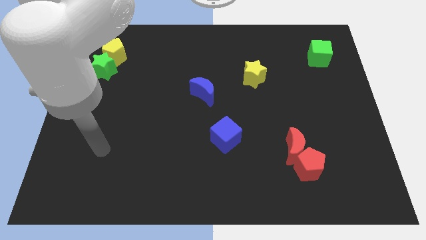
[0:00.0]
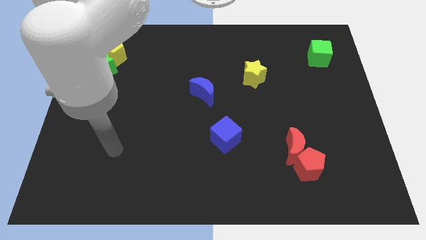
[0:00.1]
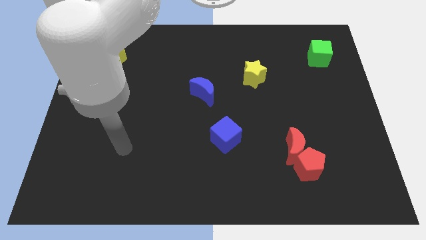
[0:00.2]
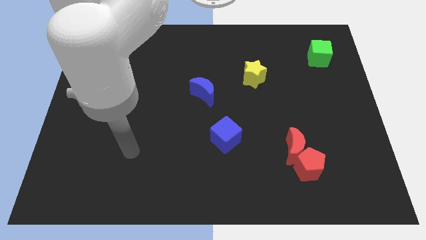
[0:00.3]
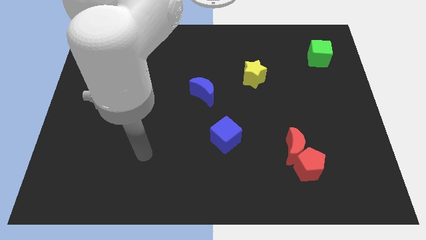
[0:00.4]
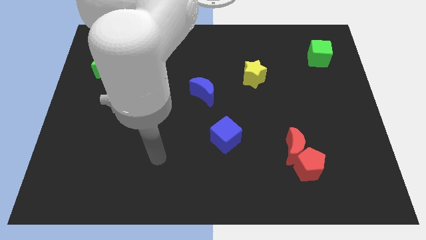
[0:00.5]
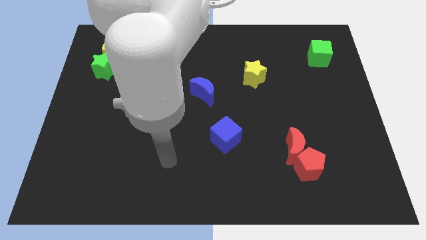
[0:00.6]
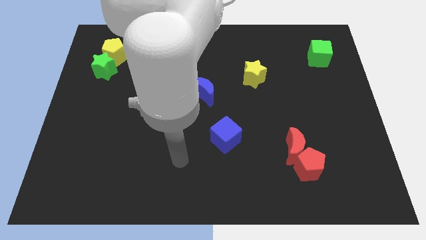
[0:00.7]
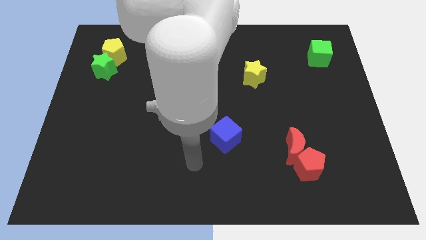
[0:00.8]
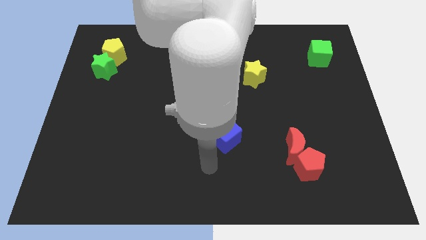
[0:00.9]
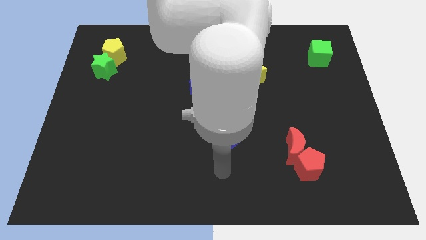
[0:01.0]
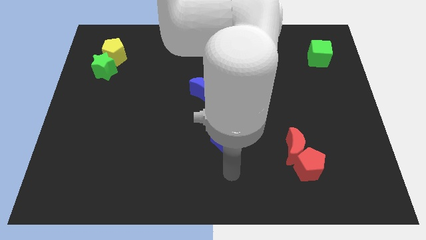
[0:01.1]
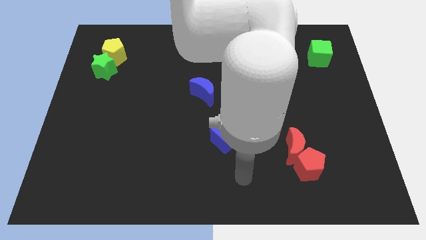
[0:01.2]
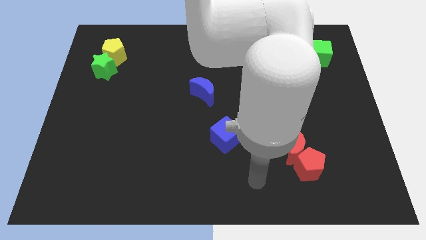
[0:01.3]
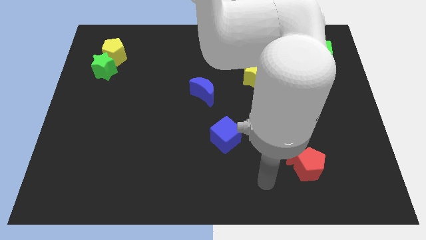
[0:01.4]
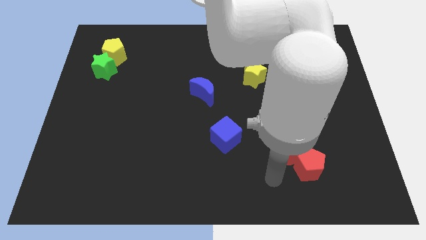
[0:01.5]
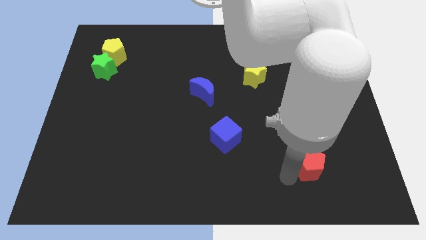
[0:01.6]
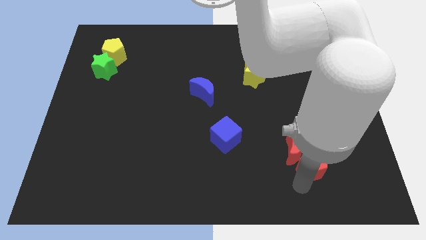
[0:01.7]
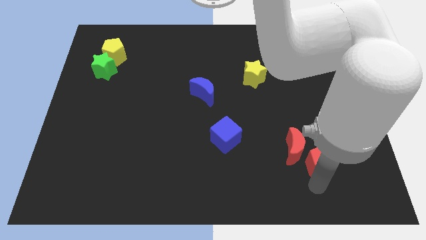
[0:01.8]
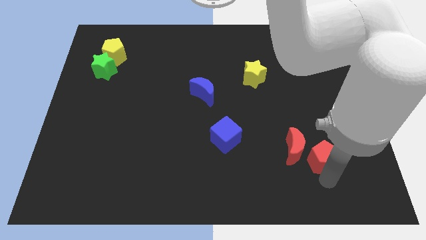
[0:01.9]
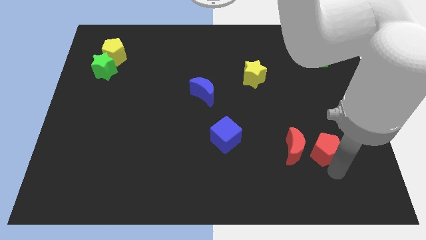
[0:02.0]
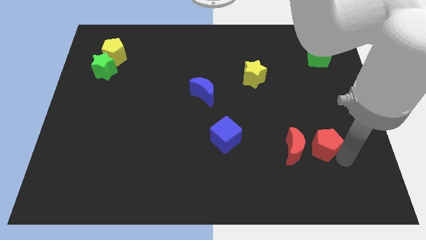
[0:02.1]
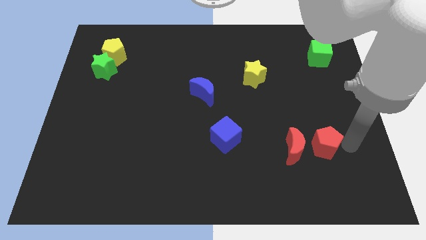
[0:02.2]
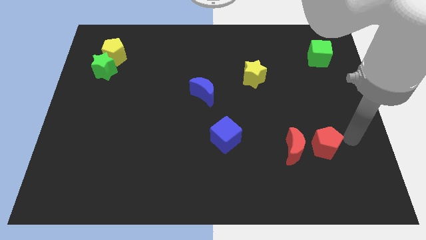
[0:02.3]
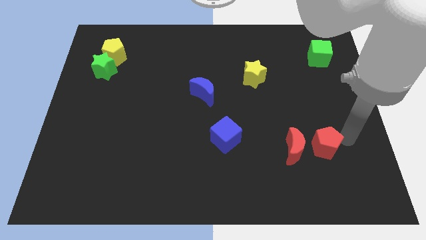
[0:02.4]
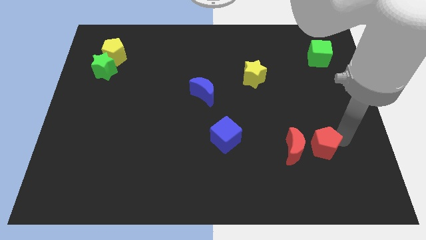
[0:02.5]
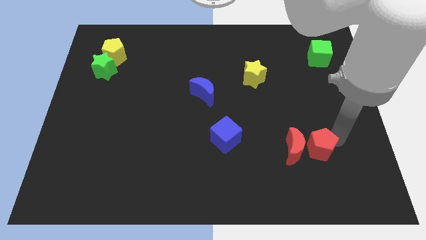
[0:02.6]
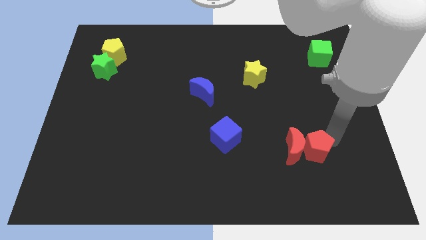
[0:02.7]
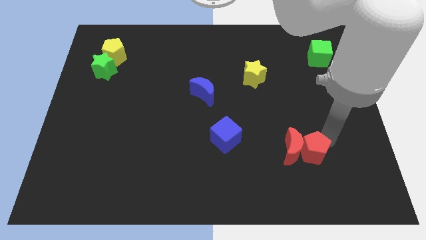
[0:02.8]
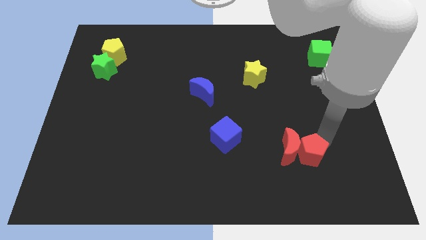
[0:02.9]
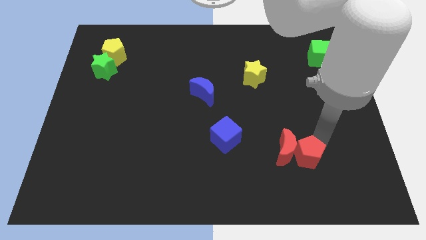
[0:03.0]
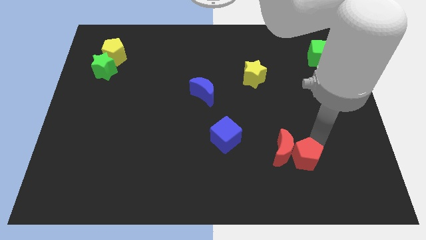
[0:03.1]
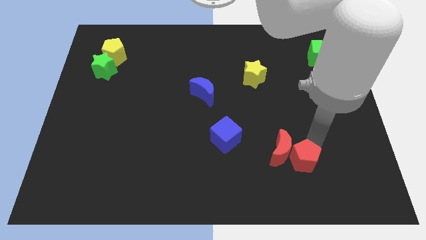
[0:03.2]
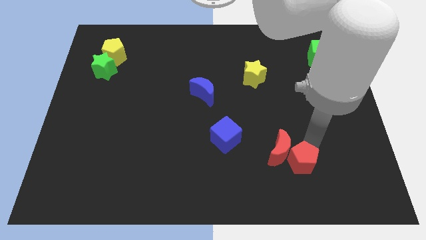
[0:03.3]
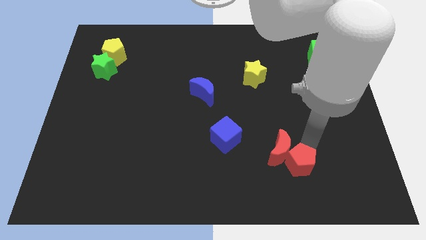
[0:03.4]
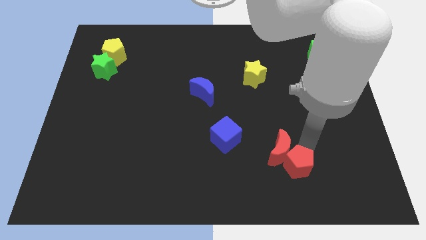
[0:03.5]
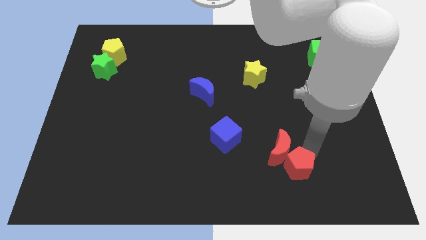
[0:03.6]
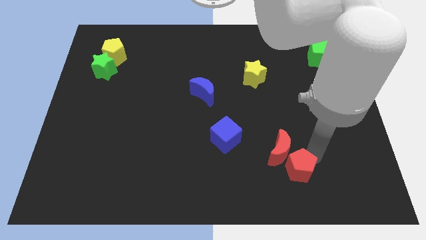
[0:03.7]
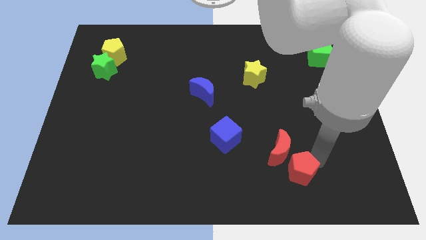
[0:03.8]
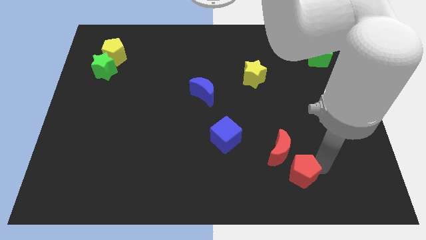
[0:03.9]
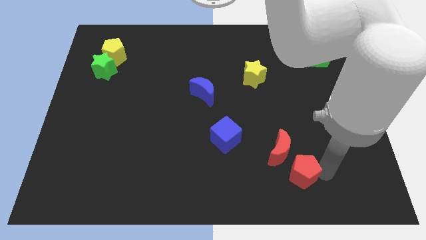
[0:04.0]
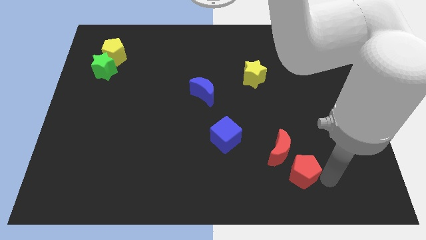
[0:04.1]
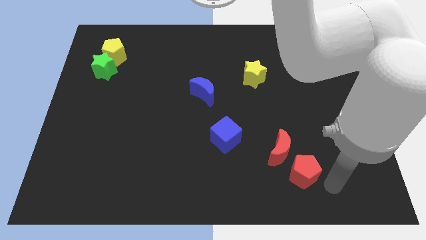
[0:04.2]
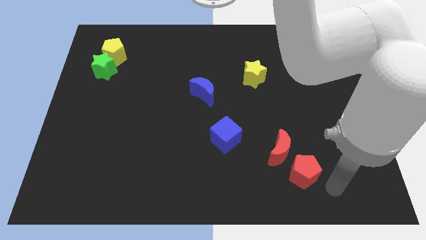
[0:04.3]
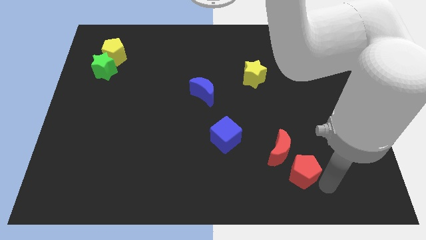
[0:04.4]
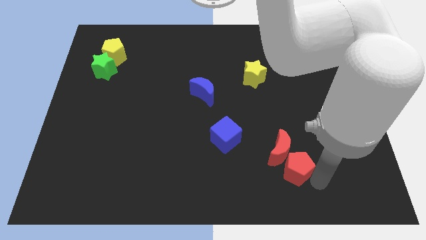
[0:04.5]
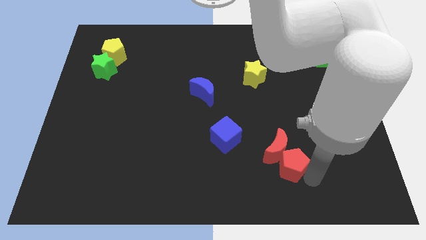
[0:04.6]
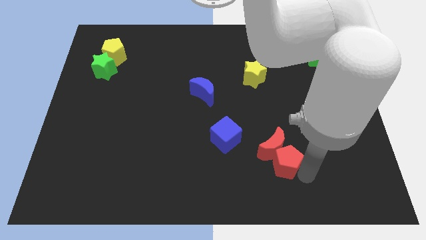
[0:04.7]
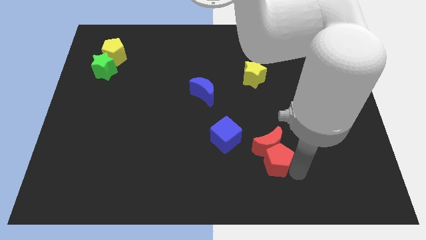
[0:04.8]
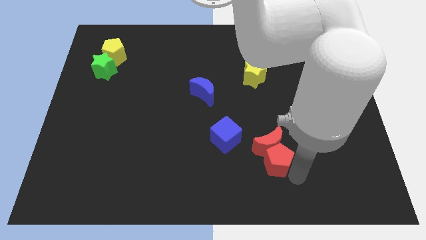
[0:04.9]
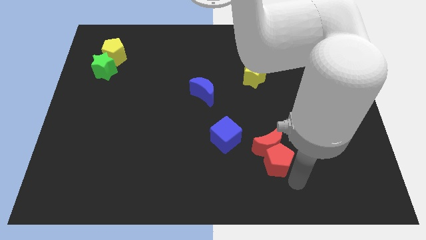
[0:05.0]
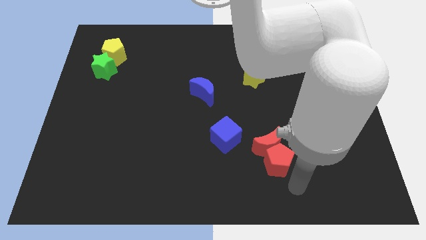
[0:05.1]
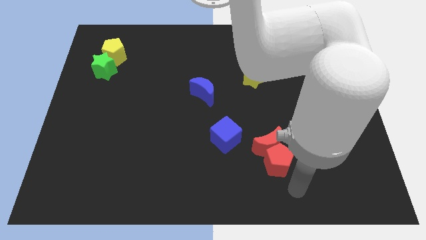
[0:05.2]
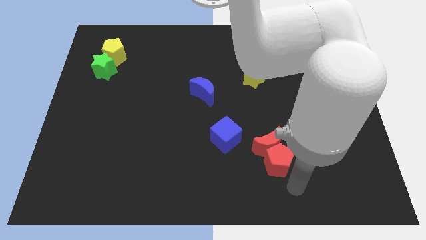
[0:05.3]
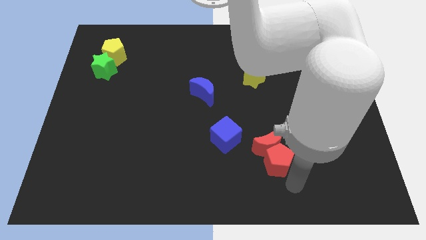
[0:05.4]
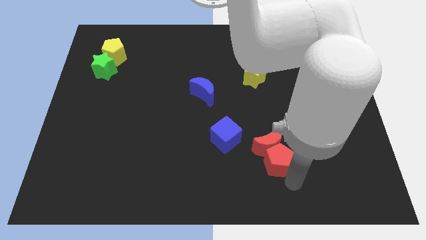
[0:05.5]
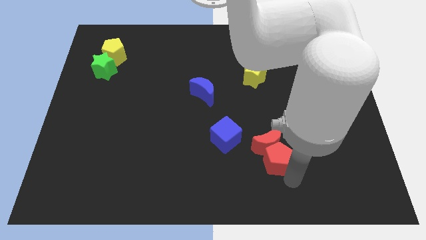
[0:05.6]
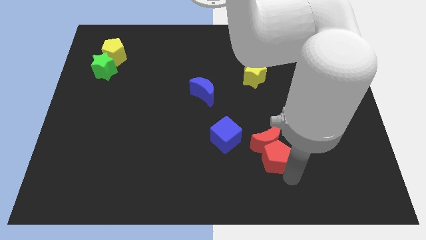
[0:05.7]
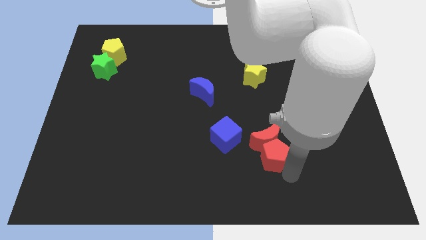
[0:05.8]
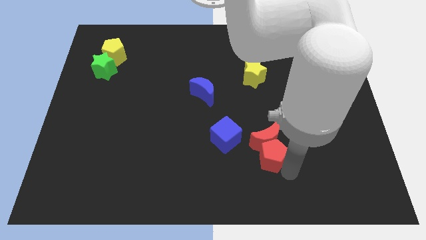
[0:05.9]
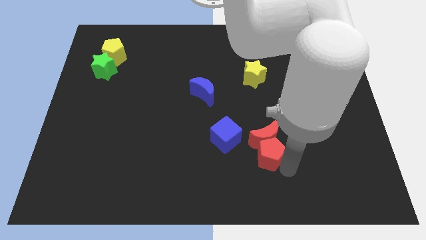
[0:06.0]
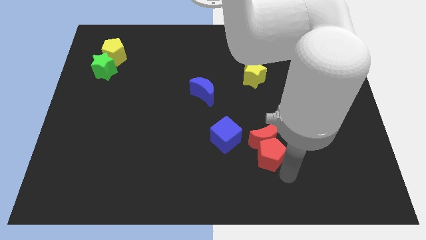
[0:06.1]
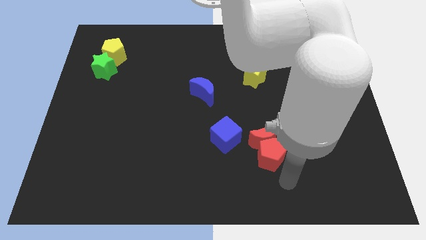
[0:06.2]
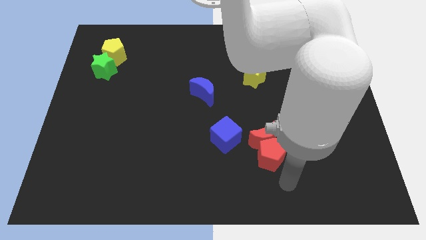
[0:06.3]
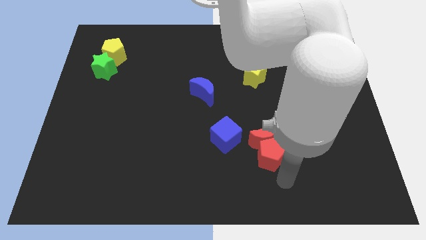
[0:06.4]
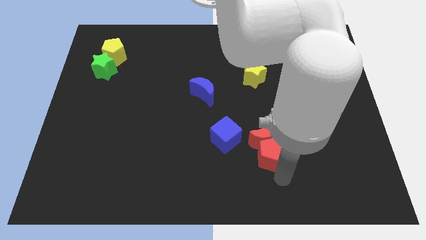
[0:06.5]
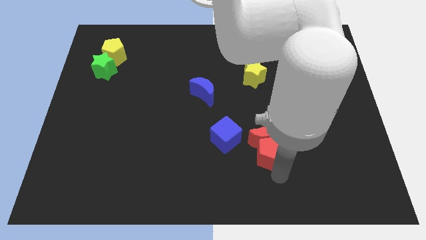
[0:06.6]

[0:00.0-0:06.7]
slightly move the red pentagon upwards and to the left

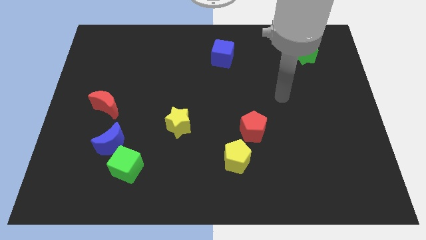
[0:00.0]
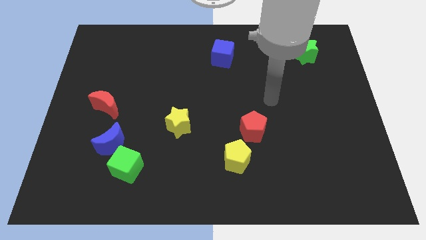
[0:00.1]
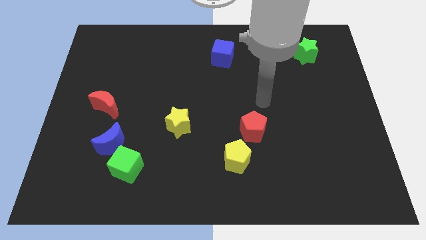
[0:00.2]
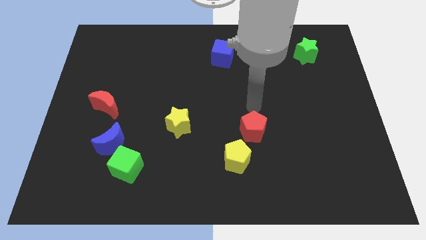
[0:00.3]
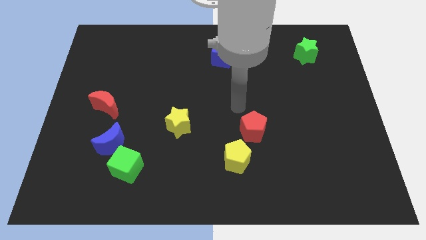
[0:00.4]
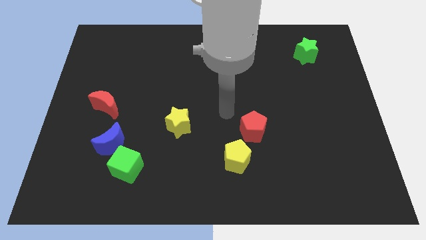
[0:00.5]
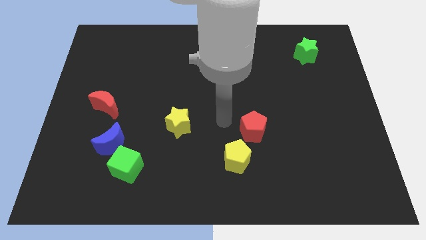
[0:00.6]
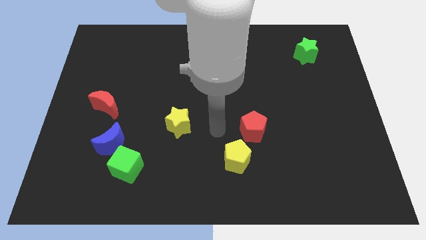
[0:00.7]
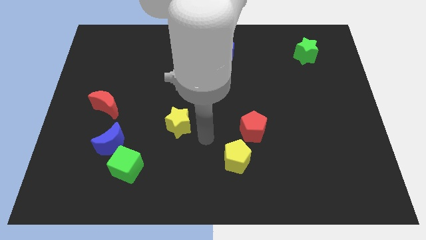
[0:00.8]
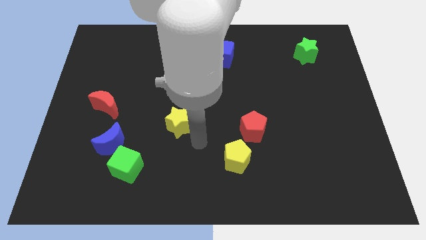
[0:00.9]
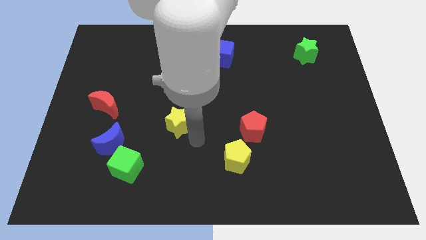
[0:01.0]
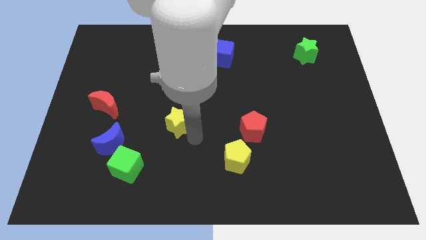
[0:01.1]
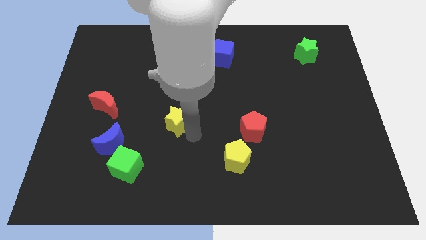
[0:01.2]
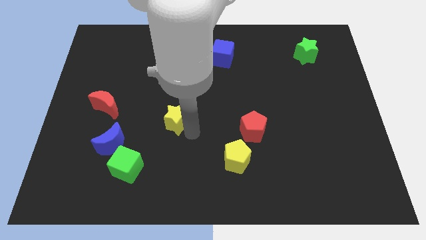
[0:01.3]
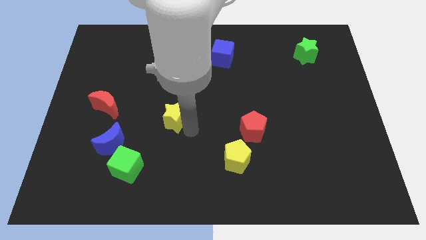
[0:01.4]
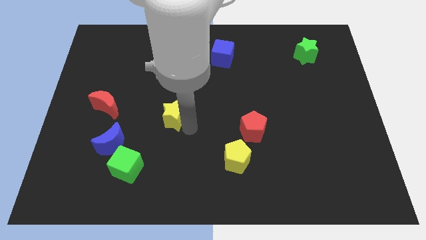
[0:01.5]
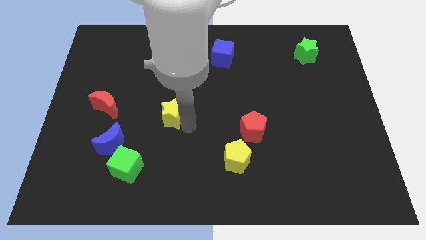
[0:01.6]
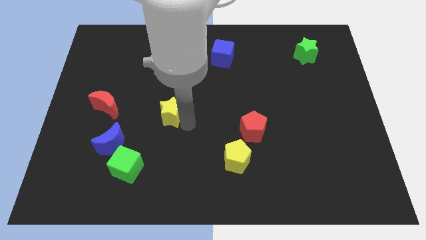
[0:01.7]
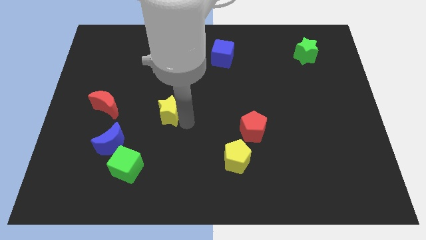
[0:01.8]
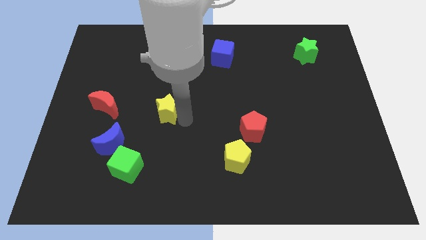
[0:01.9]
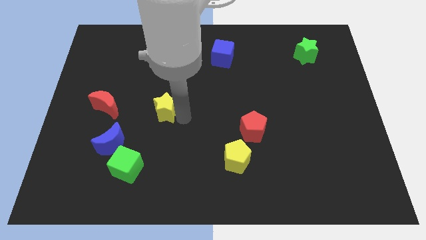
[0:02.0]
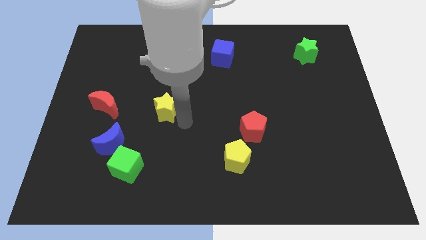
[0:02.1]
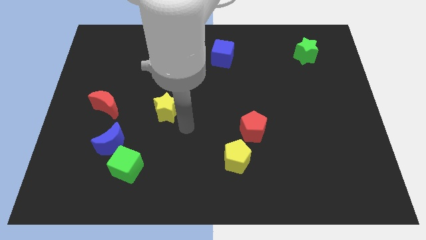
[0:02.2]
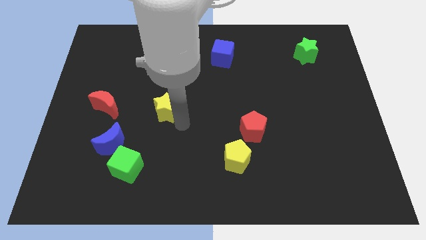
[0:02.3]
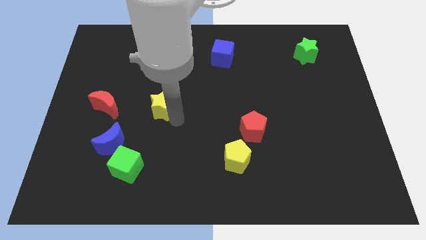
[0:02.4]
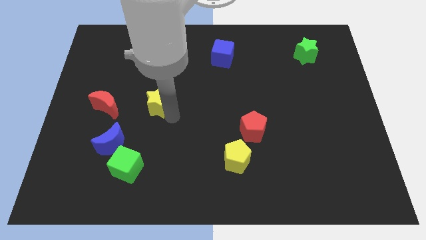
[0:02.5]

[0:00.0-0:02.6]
move the yellow star a little bit up and to the left diagonally
